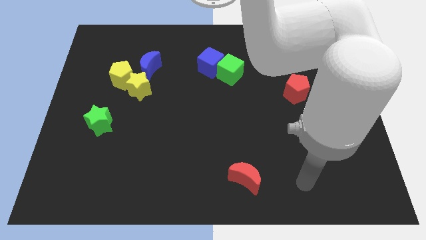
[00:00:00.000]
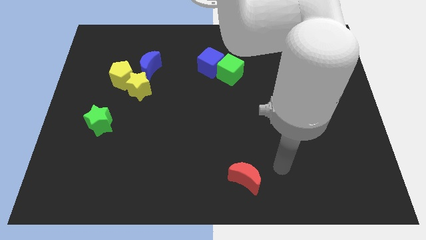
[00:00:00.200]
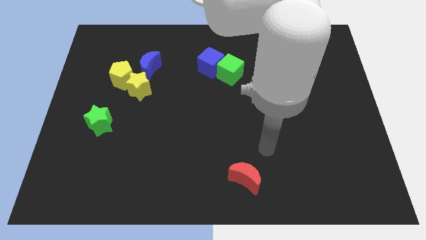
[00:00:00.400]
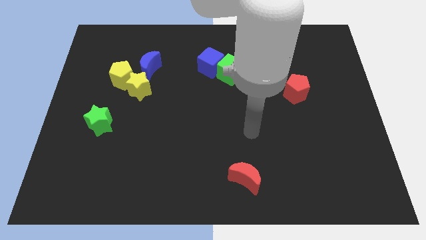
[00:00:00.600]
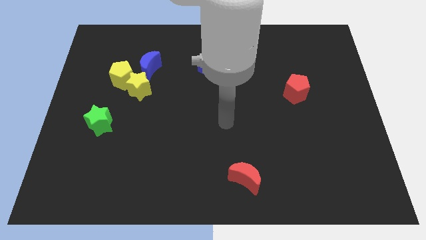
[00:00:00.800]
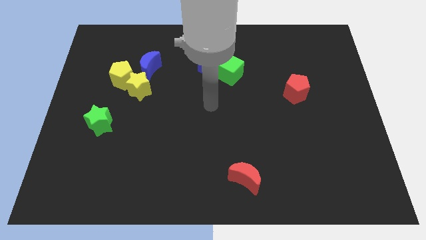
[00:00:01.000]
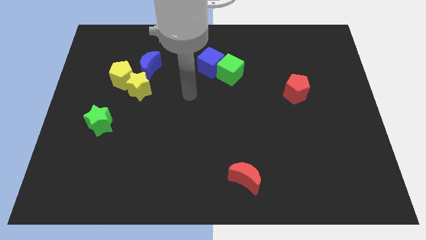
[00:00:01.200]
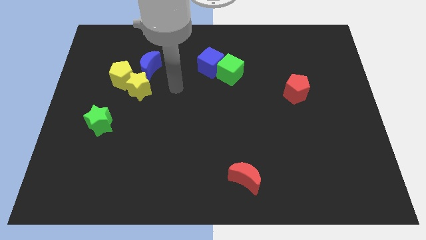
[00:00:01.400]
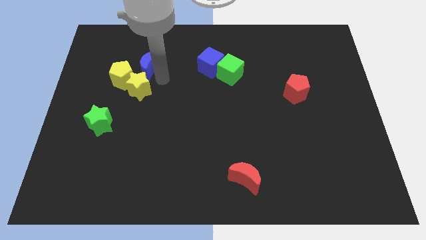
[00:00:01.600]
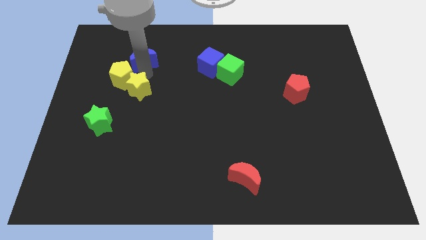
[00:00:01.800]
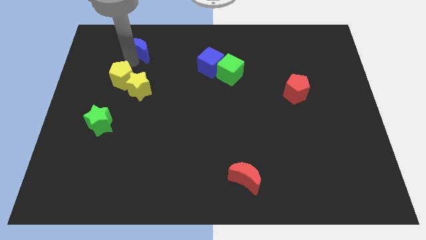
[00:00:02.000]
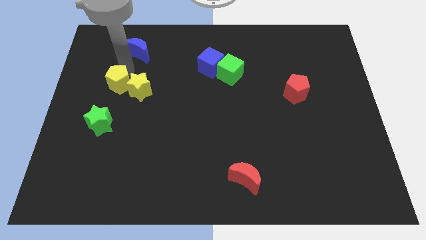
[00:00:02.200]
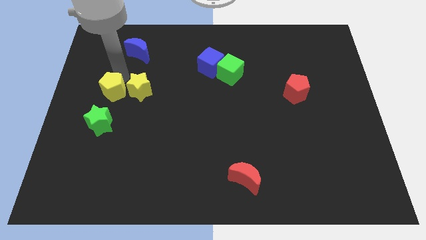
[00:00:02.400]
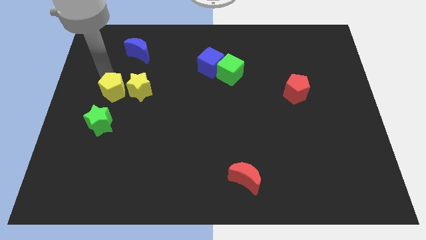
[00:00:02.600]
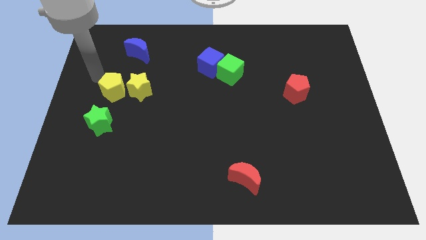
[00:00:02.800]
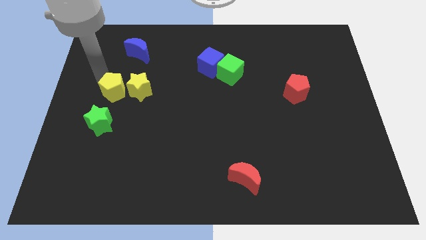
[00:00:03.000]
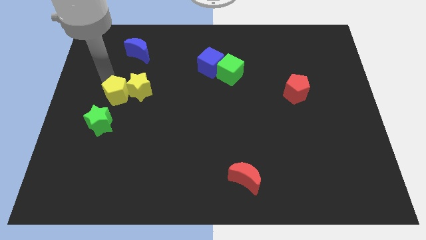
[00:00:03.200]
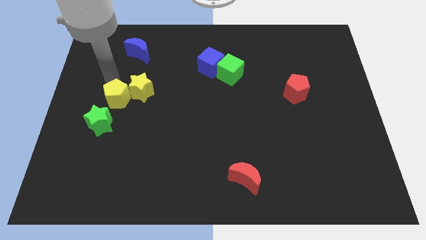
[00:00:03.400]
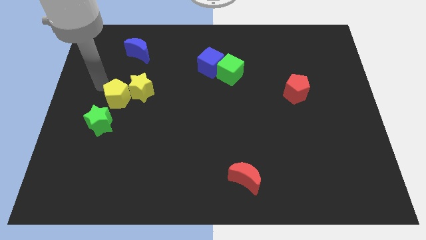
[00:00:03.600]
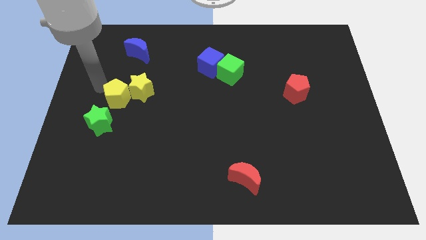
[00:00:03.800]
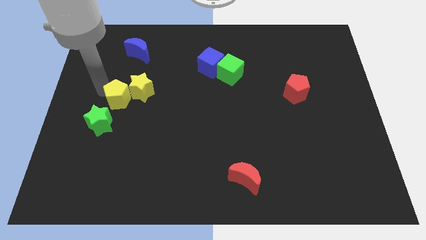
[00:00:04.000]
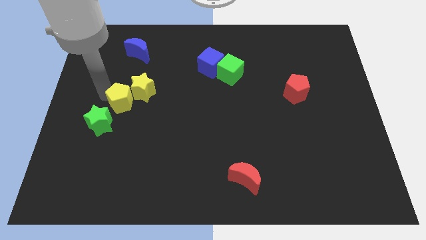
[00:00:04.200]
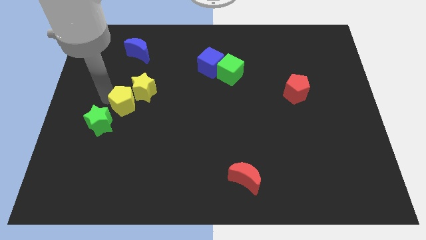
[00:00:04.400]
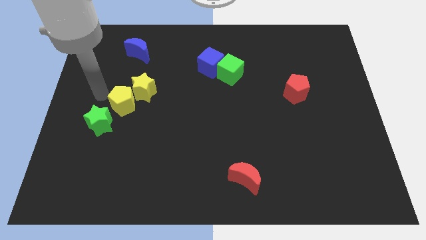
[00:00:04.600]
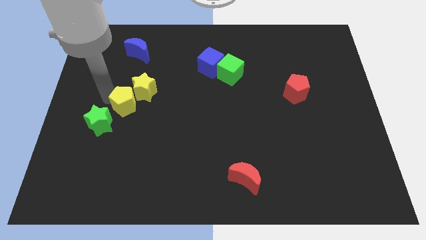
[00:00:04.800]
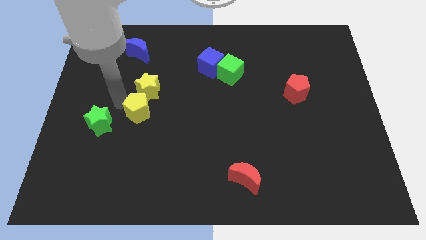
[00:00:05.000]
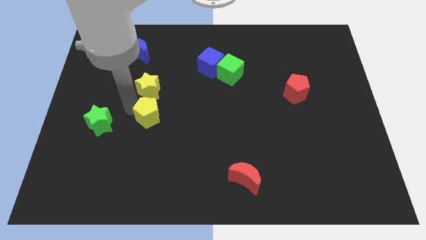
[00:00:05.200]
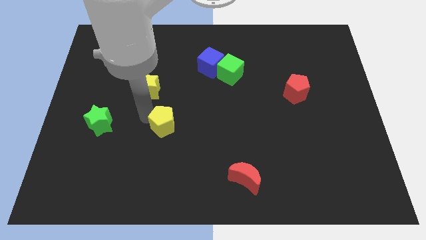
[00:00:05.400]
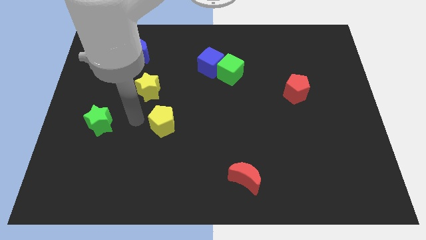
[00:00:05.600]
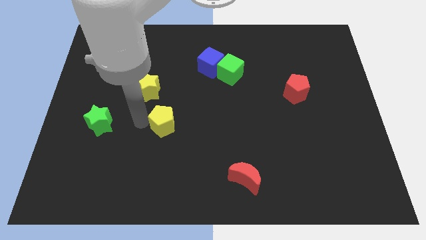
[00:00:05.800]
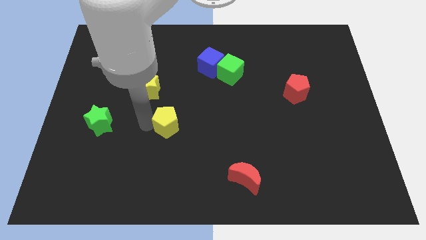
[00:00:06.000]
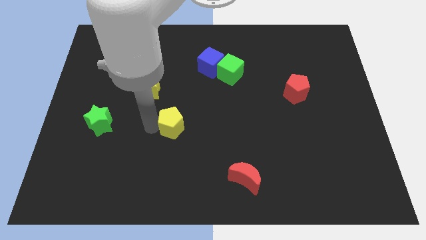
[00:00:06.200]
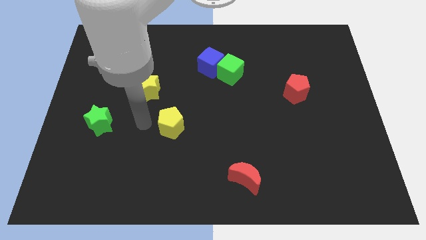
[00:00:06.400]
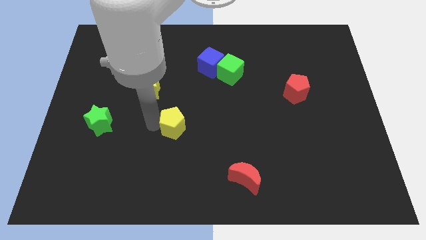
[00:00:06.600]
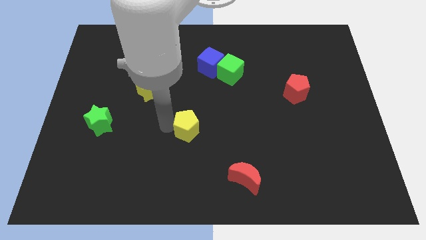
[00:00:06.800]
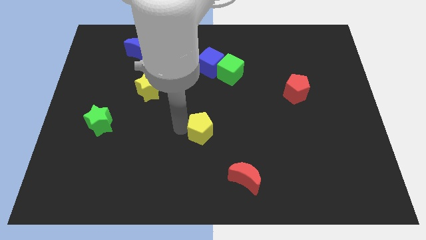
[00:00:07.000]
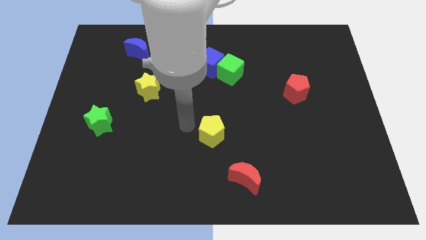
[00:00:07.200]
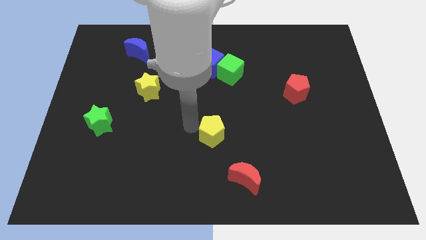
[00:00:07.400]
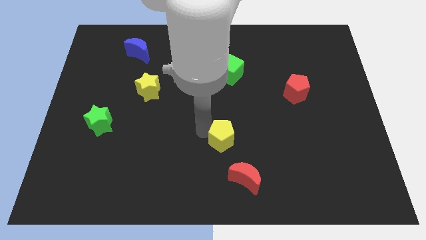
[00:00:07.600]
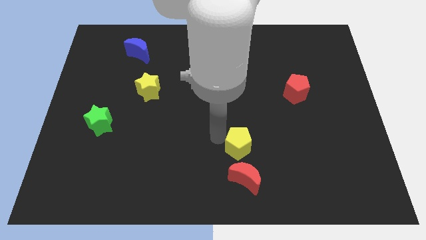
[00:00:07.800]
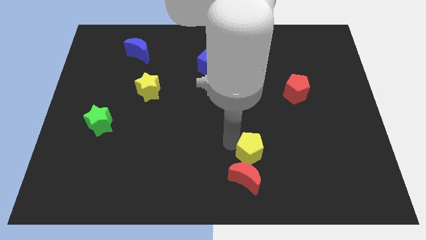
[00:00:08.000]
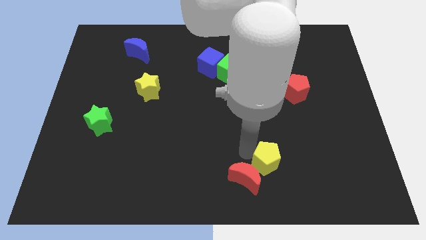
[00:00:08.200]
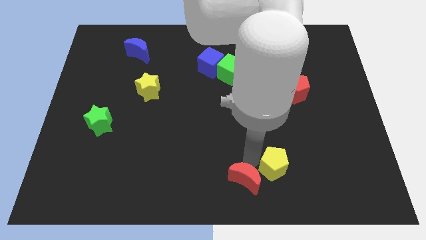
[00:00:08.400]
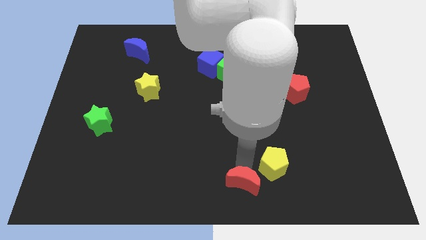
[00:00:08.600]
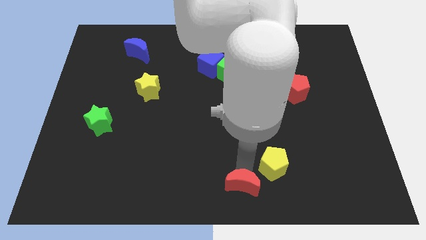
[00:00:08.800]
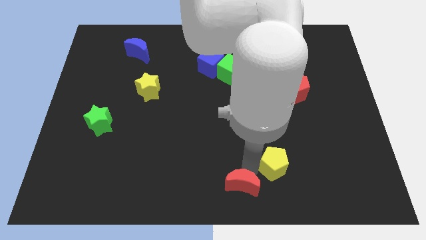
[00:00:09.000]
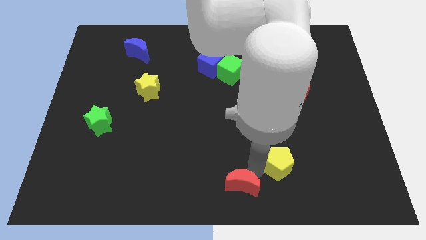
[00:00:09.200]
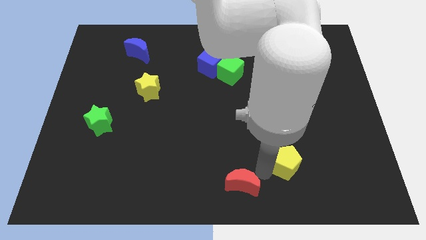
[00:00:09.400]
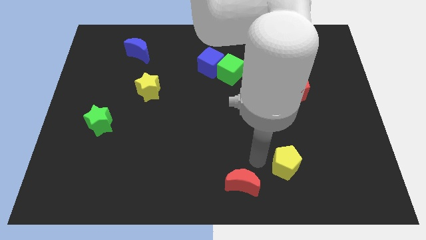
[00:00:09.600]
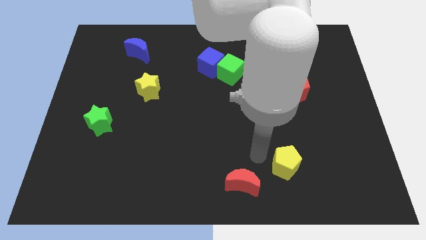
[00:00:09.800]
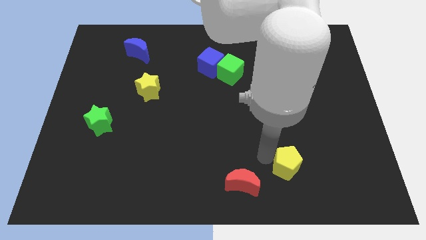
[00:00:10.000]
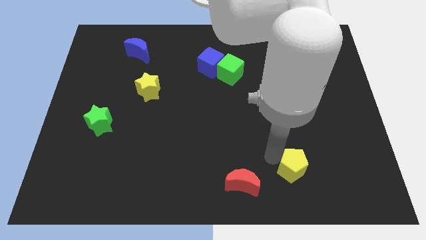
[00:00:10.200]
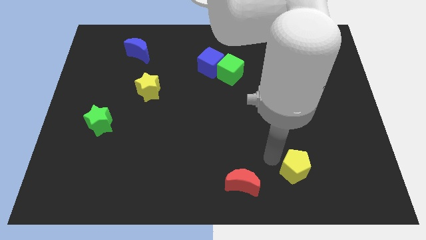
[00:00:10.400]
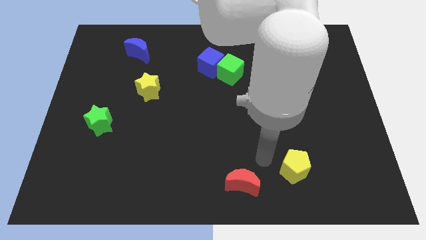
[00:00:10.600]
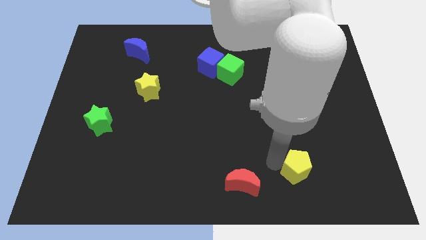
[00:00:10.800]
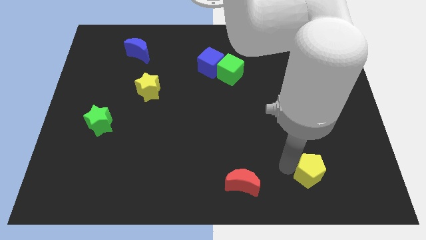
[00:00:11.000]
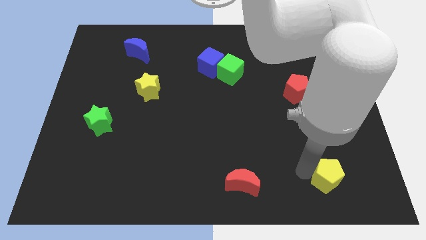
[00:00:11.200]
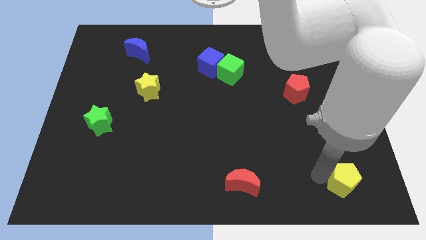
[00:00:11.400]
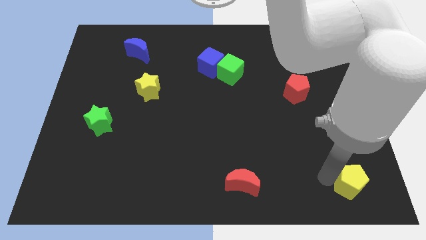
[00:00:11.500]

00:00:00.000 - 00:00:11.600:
push the yellow pentagon to the bottom right
